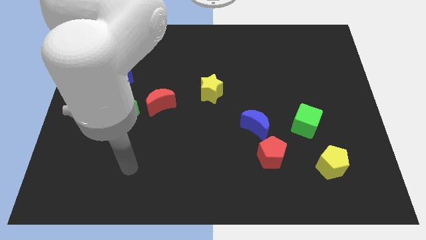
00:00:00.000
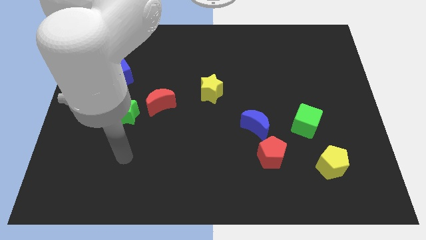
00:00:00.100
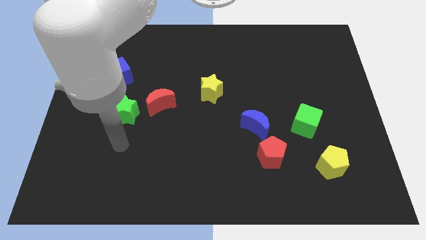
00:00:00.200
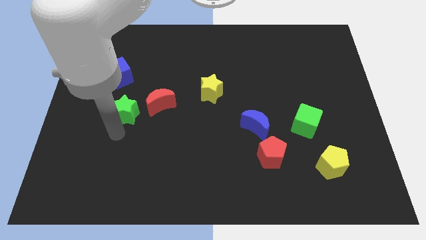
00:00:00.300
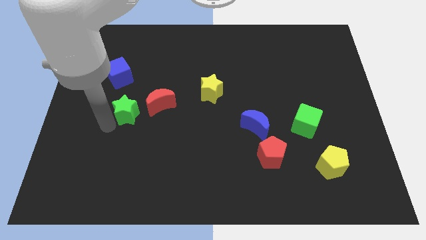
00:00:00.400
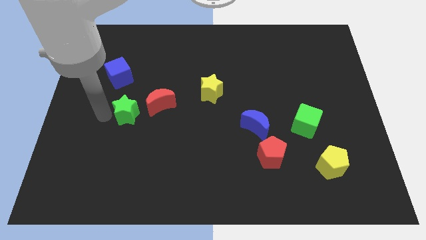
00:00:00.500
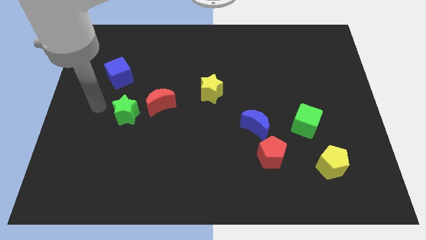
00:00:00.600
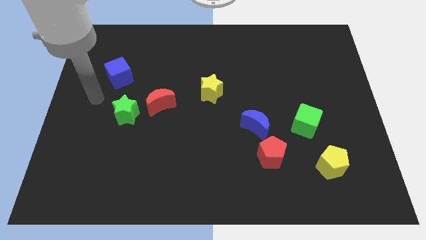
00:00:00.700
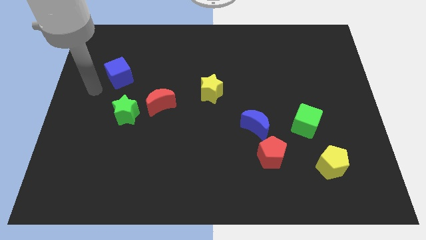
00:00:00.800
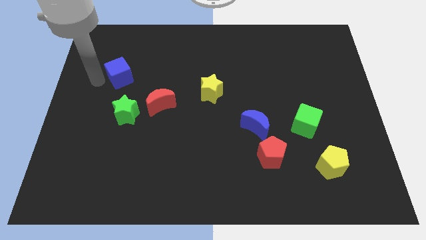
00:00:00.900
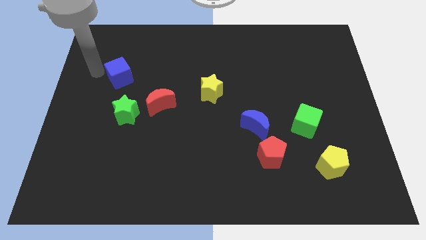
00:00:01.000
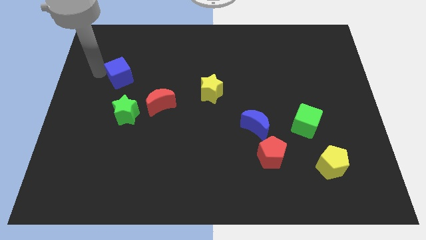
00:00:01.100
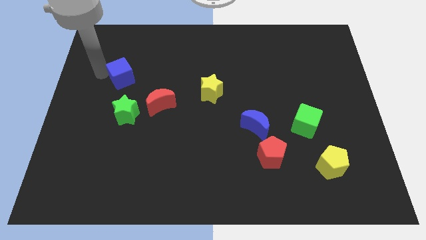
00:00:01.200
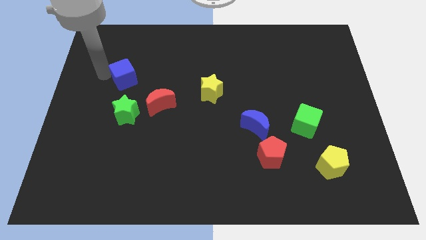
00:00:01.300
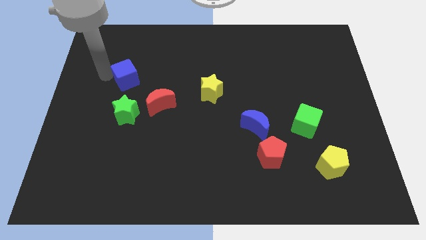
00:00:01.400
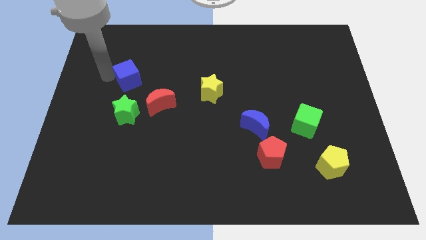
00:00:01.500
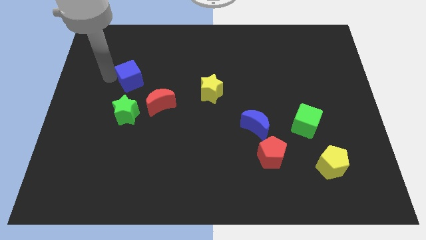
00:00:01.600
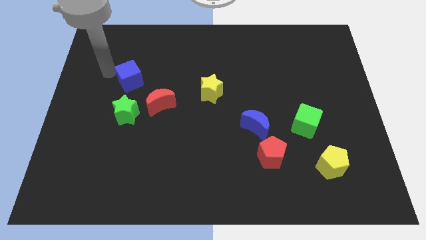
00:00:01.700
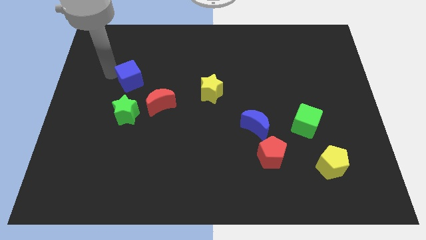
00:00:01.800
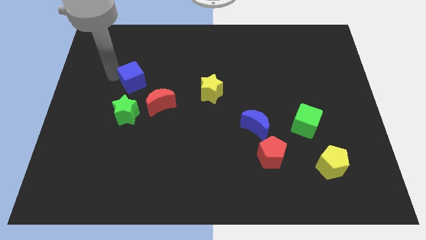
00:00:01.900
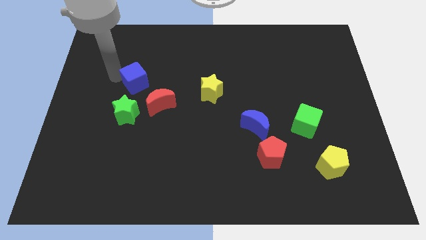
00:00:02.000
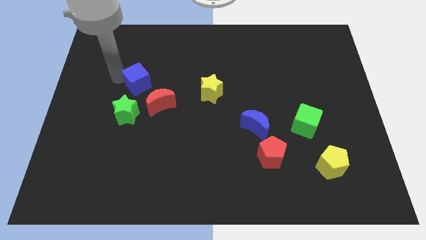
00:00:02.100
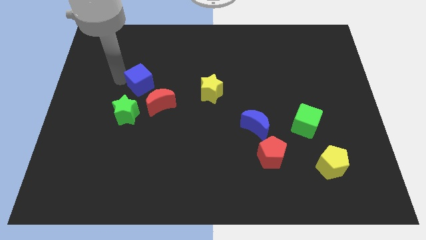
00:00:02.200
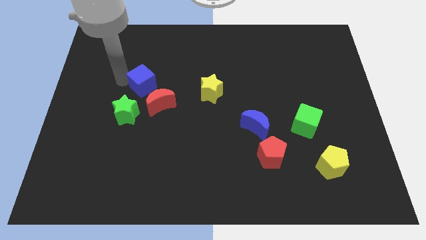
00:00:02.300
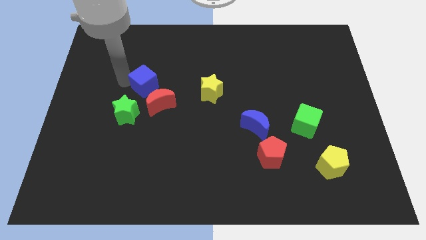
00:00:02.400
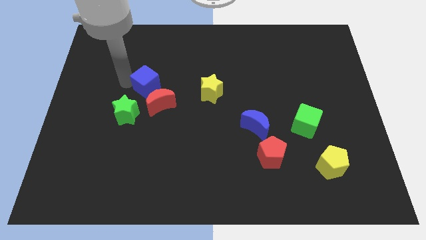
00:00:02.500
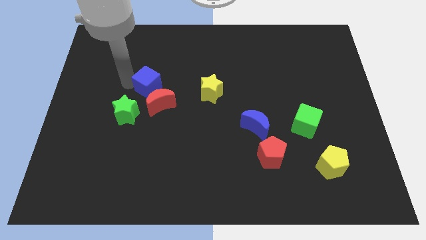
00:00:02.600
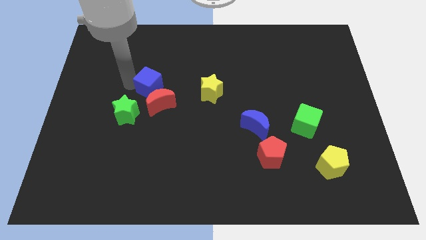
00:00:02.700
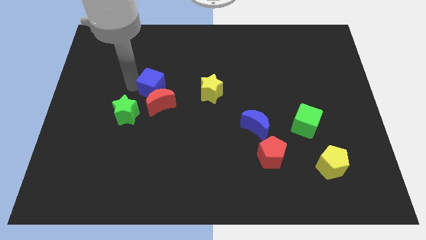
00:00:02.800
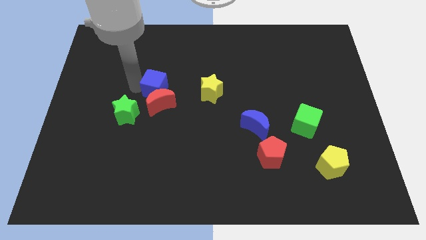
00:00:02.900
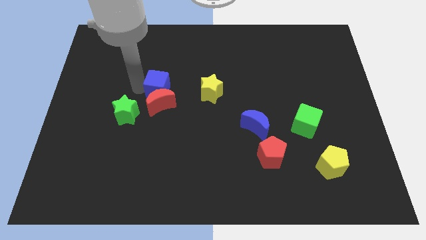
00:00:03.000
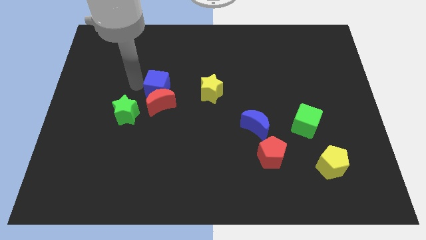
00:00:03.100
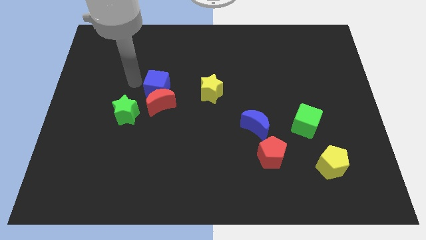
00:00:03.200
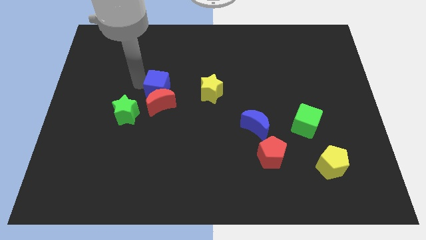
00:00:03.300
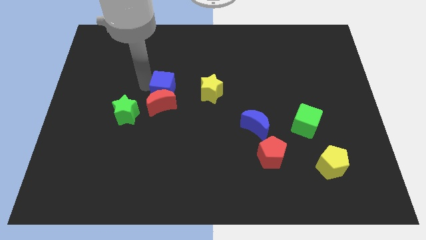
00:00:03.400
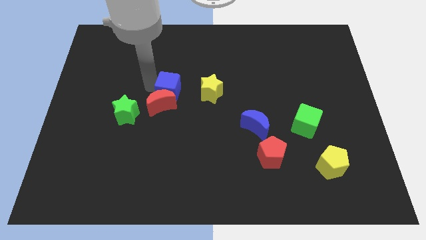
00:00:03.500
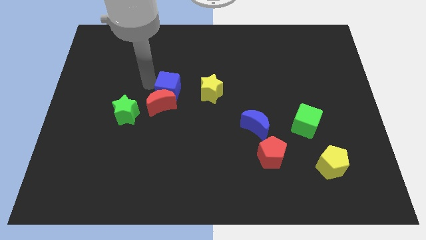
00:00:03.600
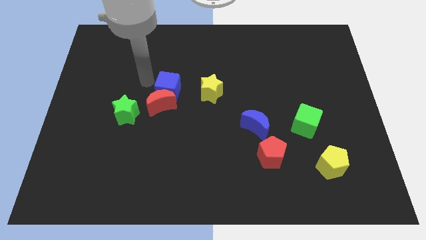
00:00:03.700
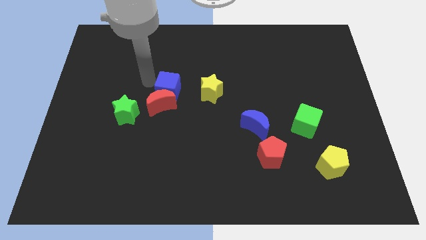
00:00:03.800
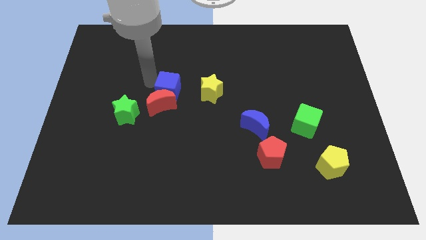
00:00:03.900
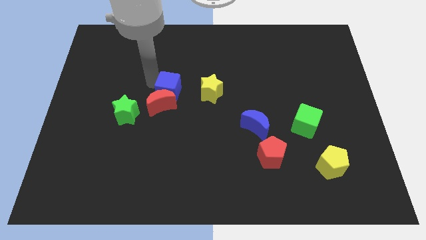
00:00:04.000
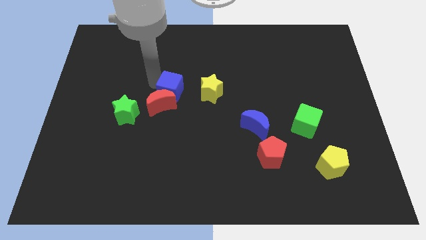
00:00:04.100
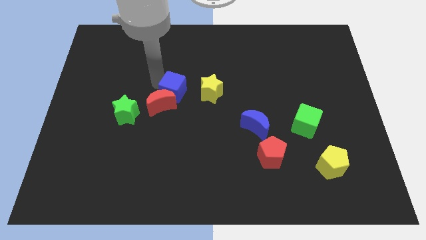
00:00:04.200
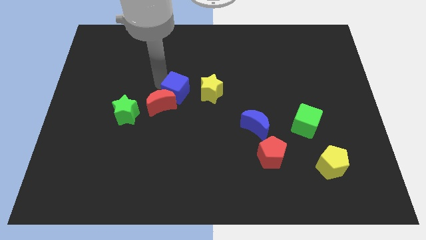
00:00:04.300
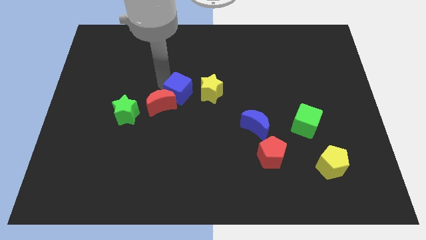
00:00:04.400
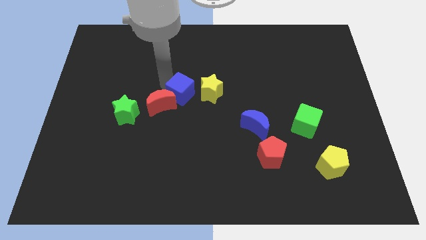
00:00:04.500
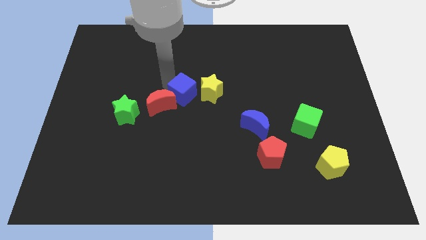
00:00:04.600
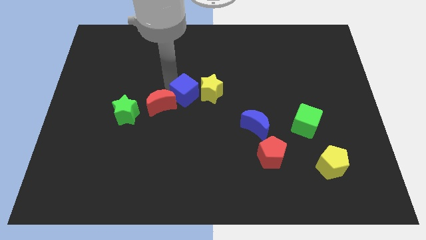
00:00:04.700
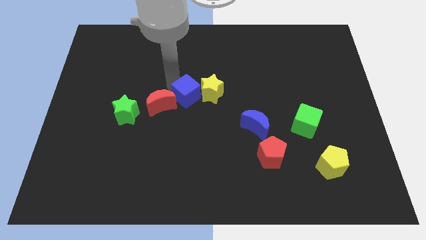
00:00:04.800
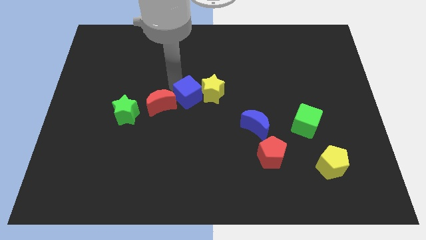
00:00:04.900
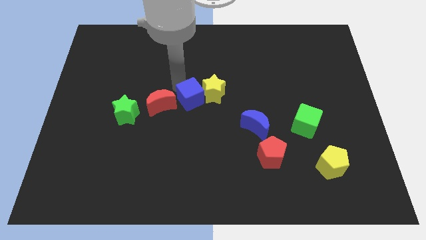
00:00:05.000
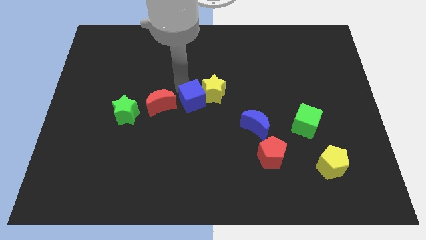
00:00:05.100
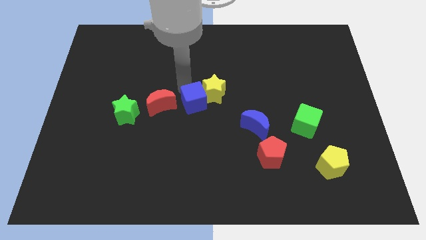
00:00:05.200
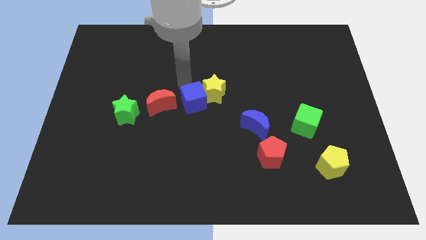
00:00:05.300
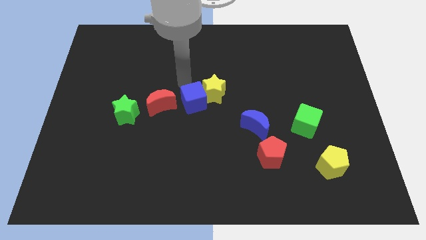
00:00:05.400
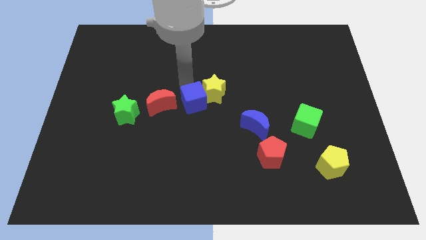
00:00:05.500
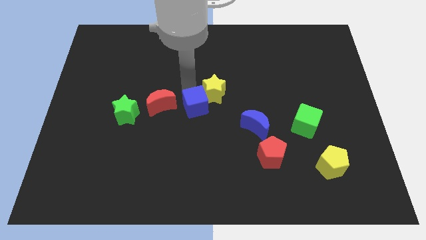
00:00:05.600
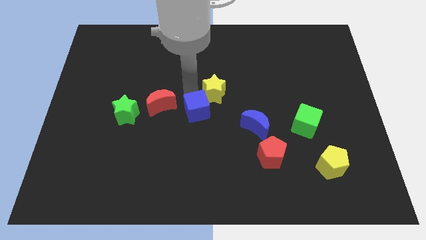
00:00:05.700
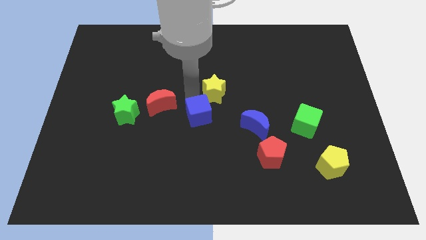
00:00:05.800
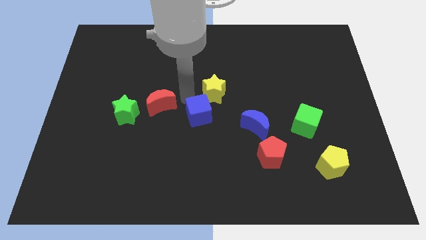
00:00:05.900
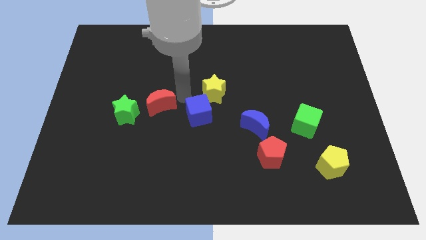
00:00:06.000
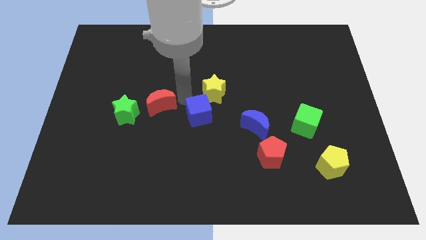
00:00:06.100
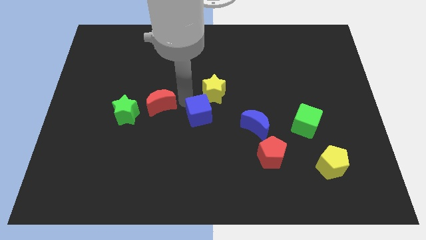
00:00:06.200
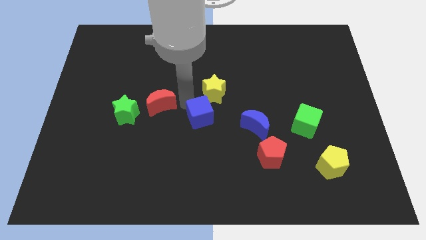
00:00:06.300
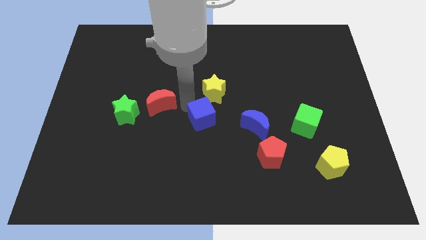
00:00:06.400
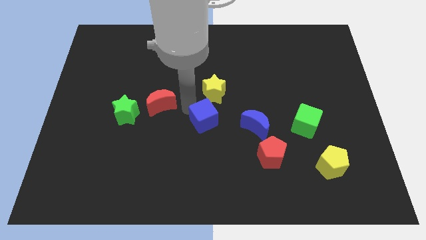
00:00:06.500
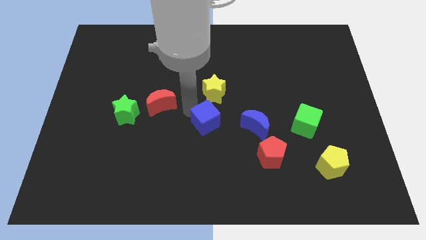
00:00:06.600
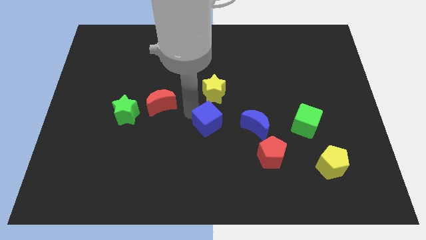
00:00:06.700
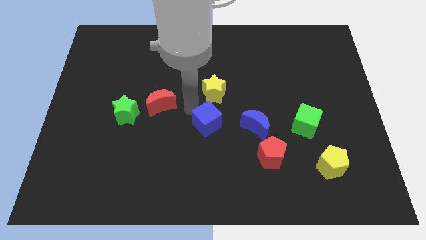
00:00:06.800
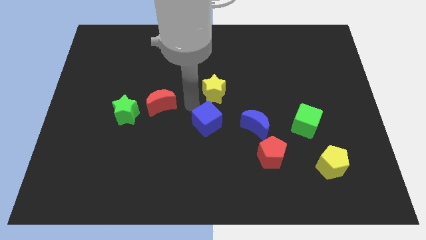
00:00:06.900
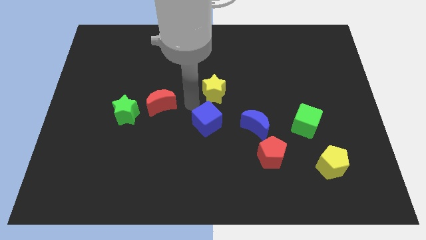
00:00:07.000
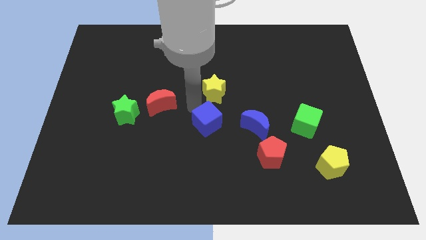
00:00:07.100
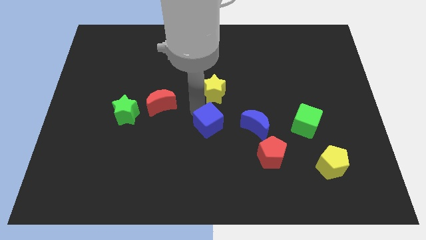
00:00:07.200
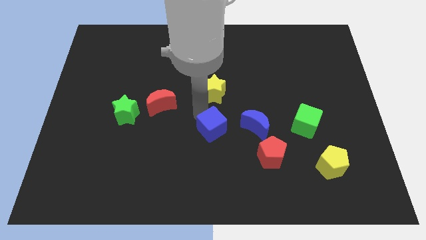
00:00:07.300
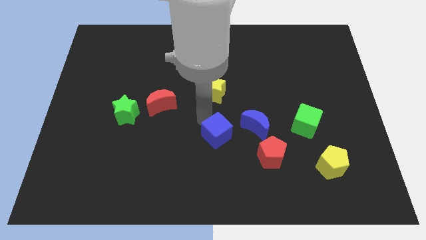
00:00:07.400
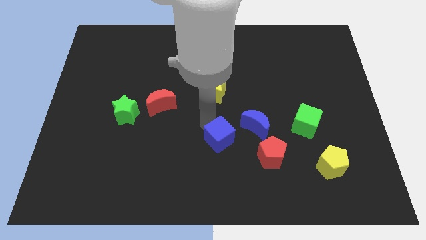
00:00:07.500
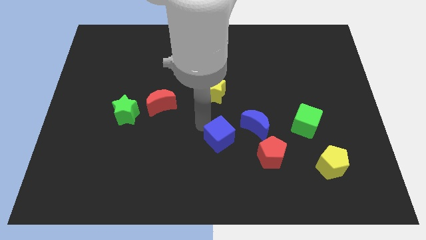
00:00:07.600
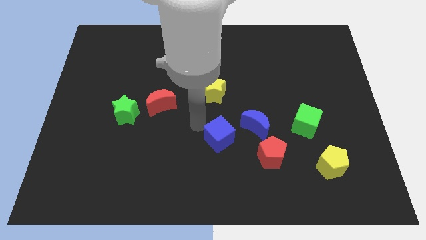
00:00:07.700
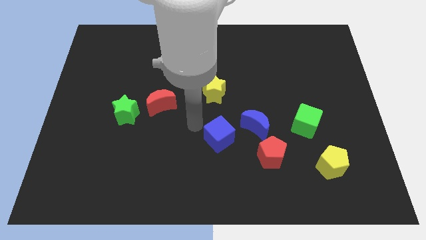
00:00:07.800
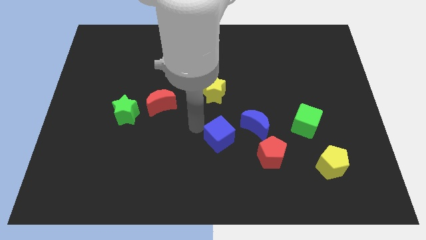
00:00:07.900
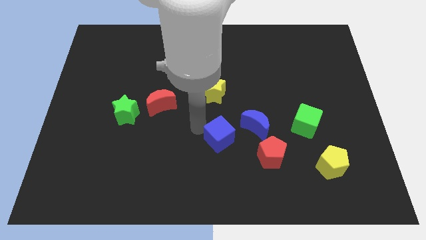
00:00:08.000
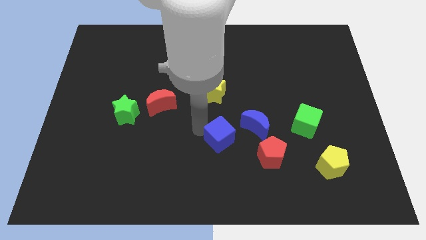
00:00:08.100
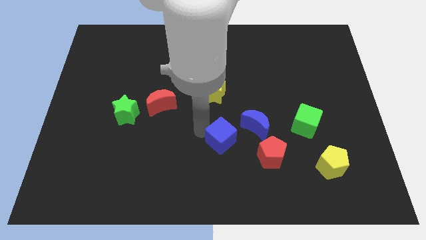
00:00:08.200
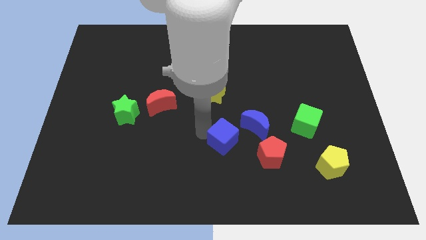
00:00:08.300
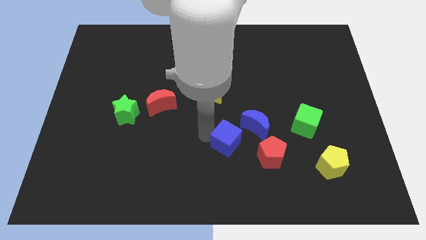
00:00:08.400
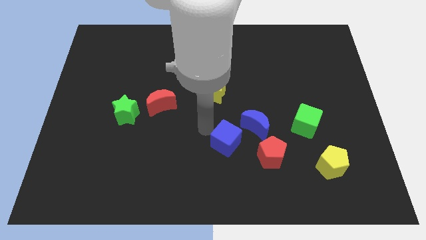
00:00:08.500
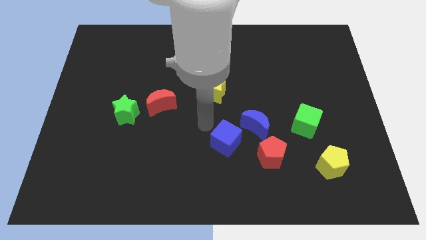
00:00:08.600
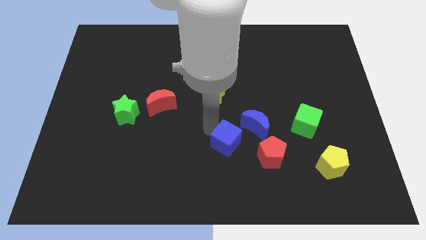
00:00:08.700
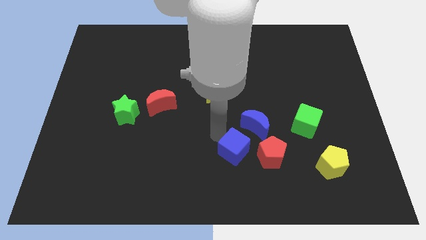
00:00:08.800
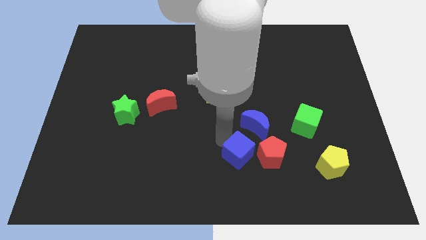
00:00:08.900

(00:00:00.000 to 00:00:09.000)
slide the blue cube to the bottom of the blue moon
